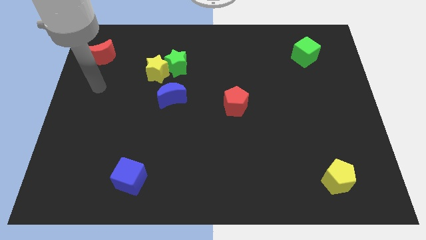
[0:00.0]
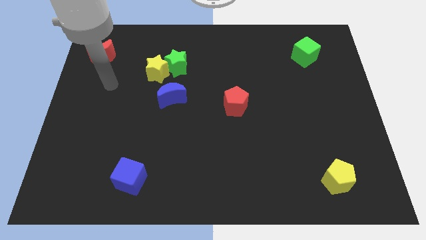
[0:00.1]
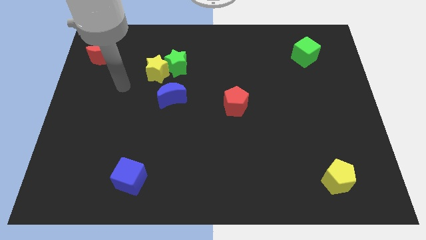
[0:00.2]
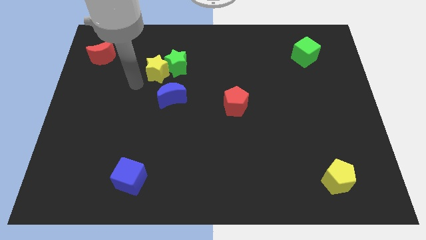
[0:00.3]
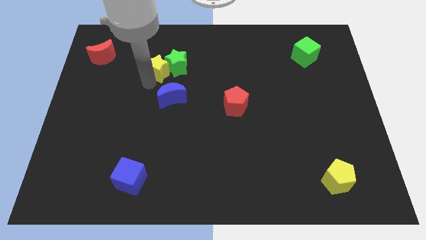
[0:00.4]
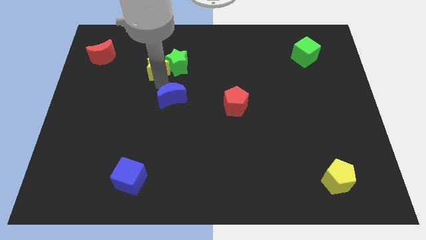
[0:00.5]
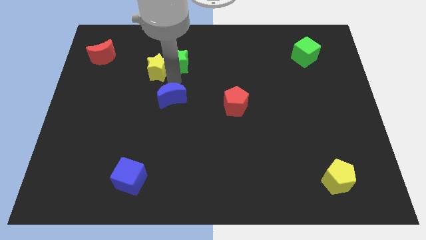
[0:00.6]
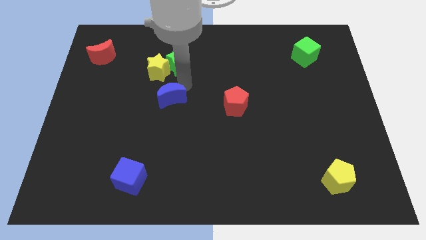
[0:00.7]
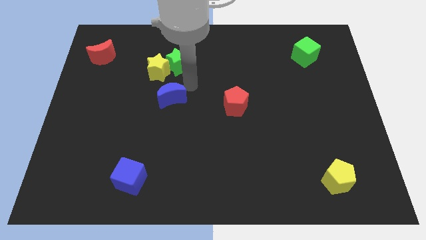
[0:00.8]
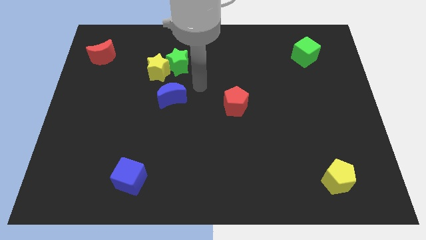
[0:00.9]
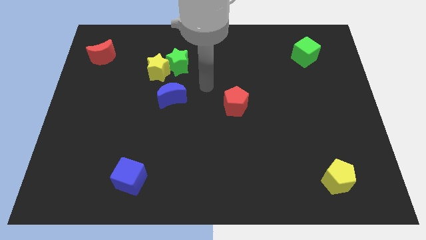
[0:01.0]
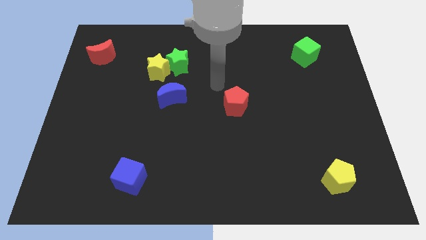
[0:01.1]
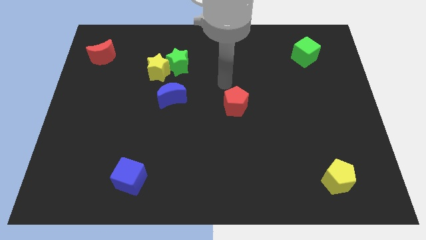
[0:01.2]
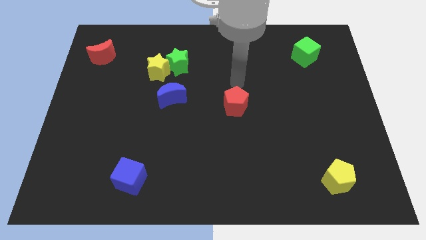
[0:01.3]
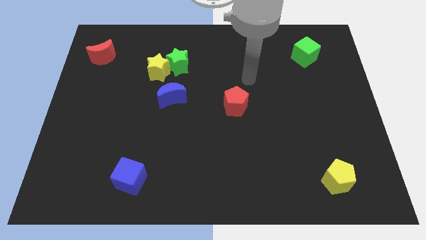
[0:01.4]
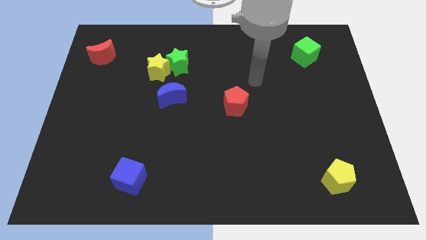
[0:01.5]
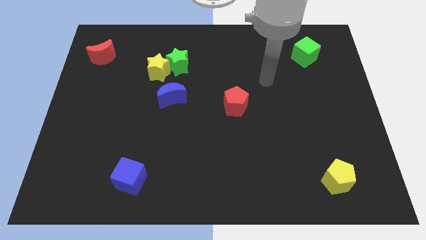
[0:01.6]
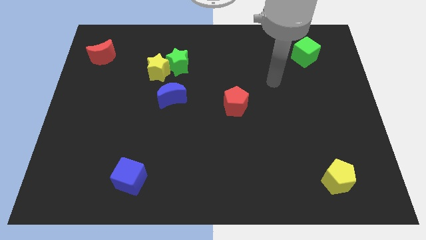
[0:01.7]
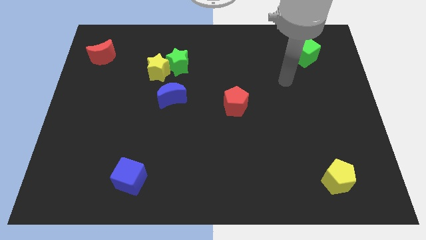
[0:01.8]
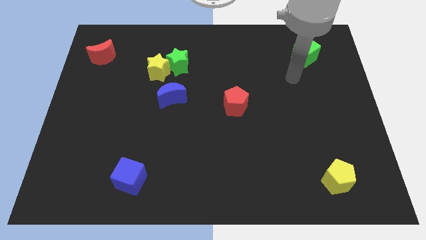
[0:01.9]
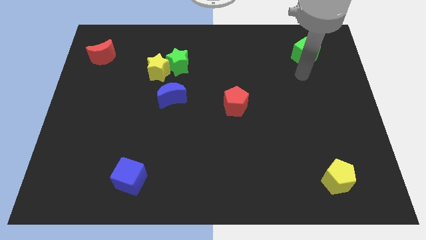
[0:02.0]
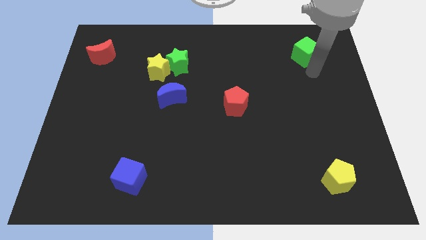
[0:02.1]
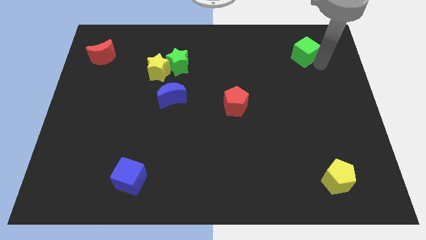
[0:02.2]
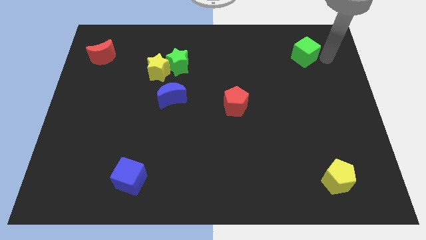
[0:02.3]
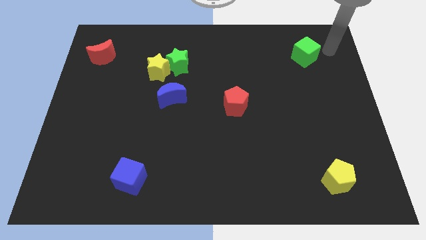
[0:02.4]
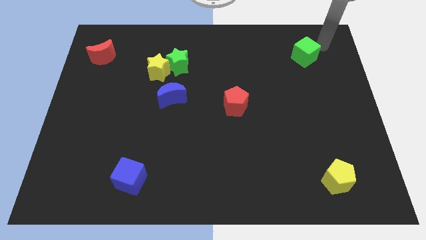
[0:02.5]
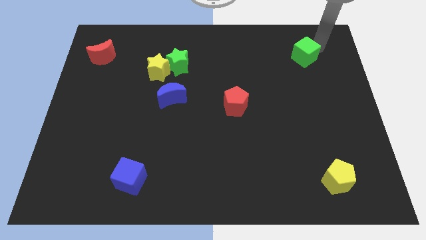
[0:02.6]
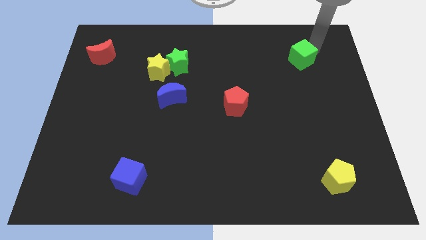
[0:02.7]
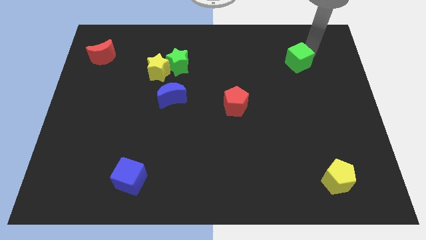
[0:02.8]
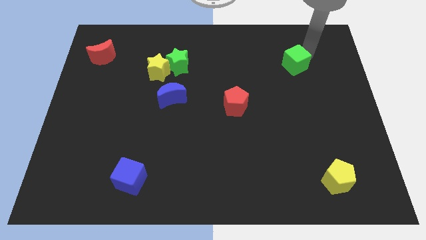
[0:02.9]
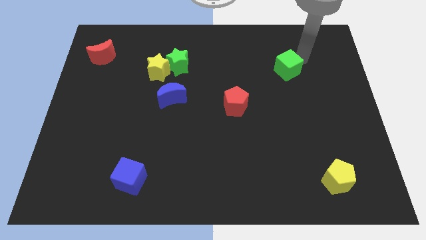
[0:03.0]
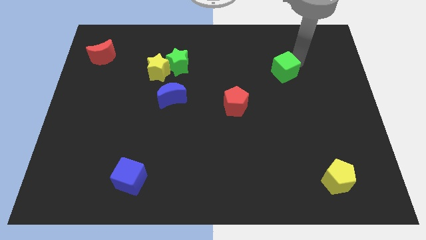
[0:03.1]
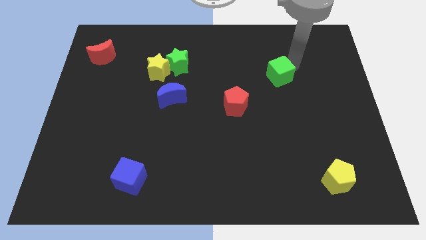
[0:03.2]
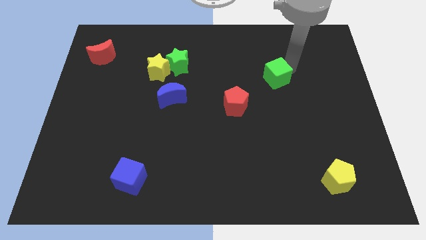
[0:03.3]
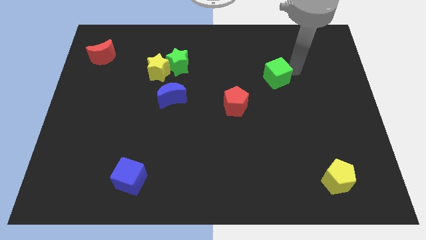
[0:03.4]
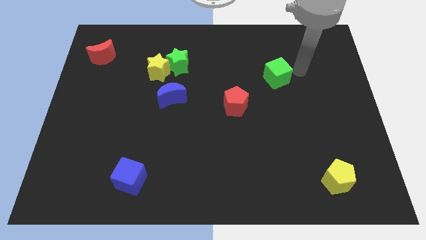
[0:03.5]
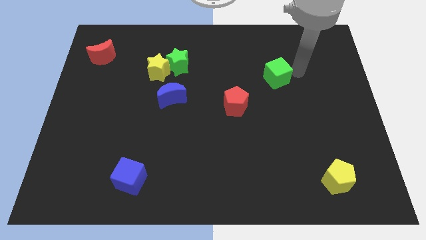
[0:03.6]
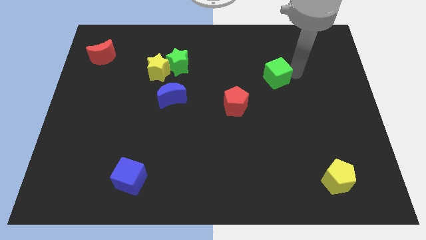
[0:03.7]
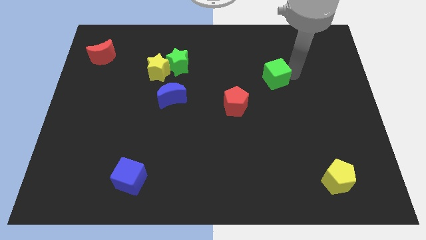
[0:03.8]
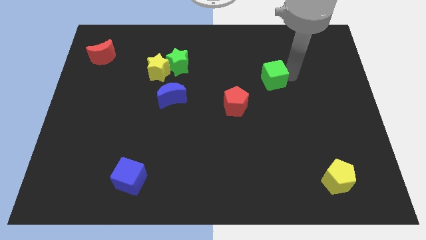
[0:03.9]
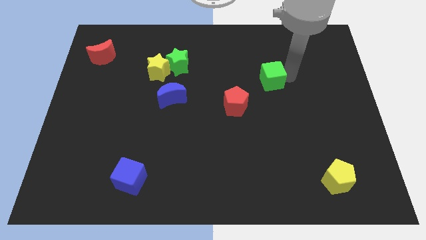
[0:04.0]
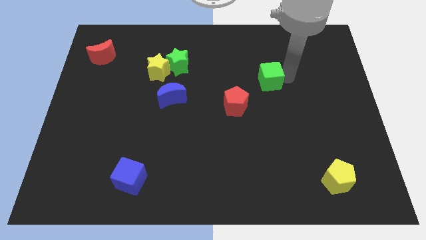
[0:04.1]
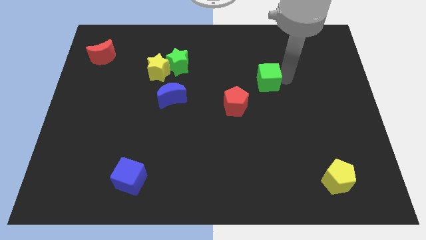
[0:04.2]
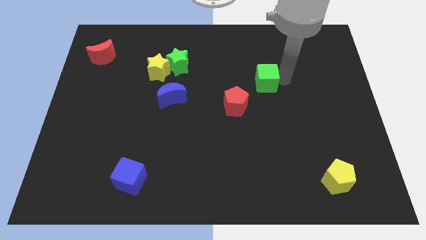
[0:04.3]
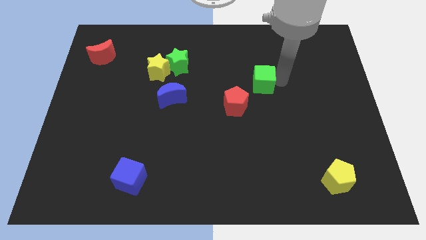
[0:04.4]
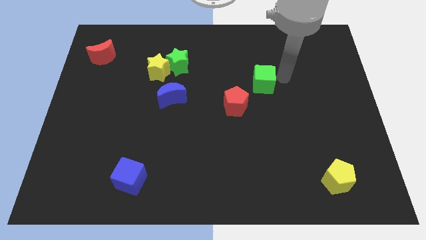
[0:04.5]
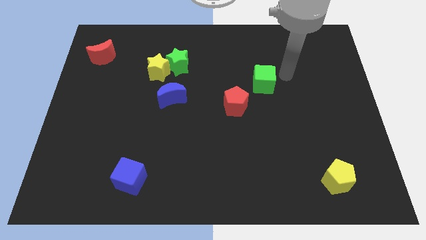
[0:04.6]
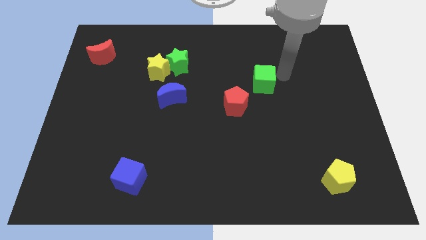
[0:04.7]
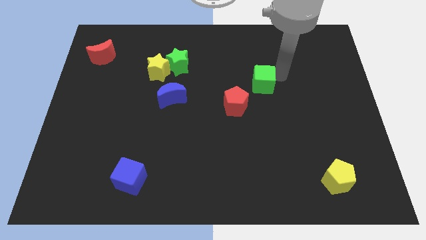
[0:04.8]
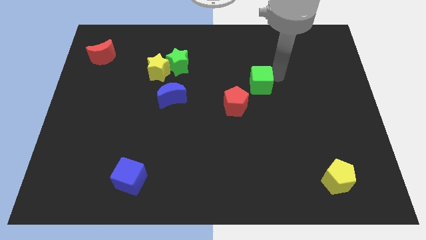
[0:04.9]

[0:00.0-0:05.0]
put the green cube to the center of the board

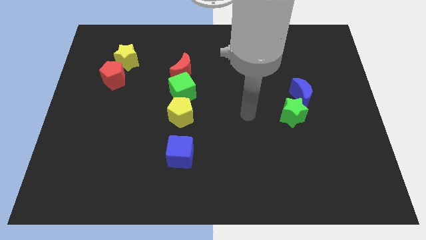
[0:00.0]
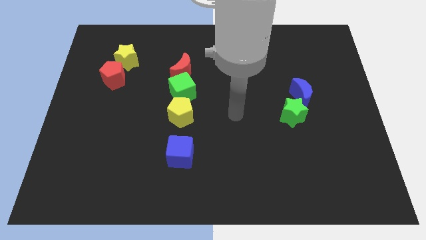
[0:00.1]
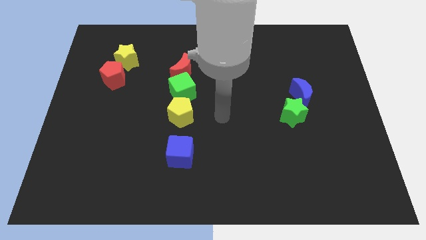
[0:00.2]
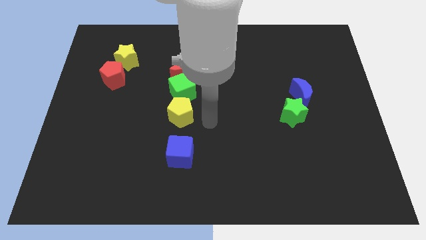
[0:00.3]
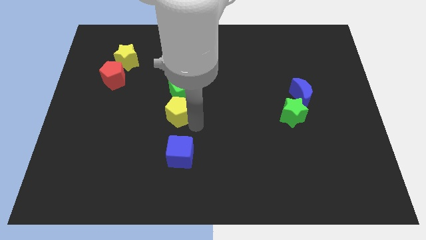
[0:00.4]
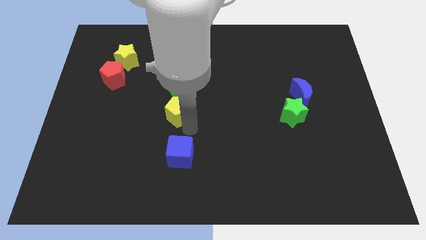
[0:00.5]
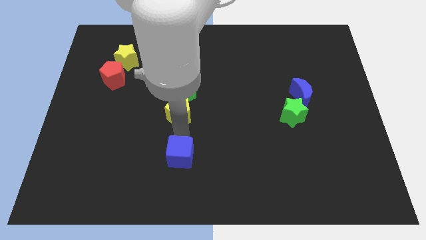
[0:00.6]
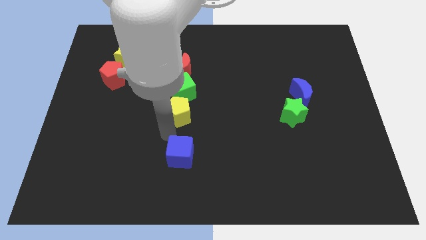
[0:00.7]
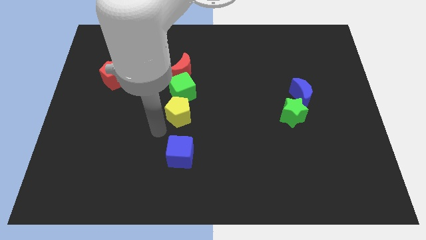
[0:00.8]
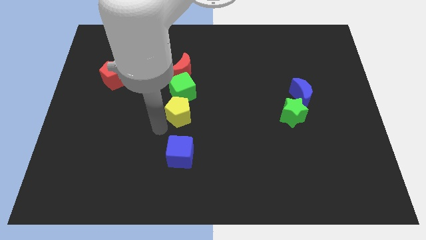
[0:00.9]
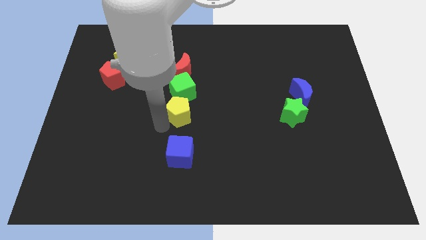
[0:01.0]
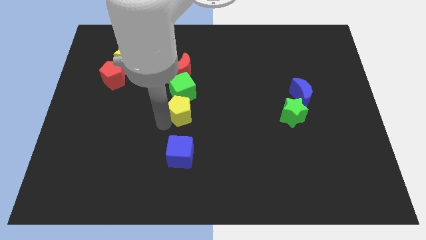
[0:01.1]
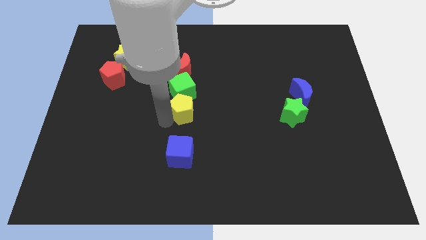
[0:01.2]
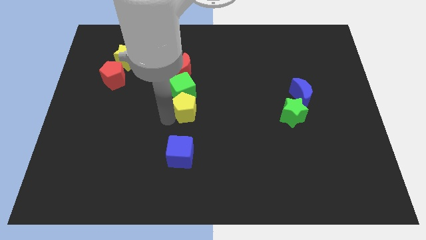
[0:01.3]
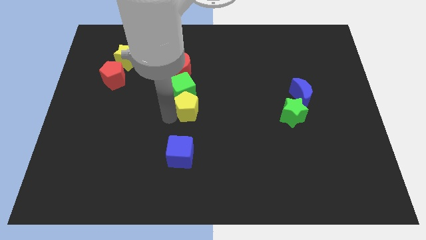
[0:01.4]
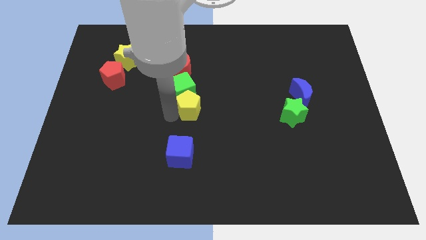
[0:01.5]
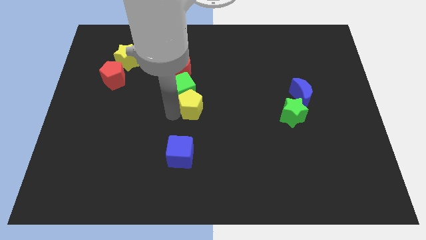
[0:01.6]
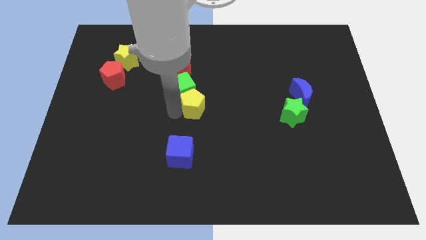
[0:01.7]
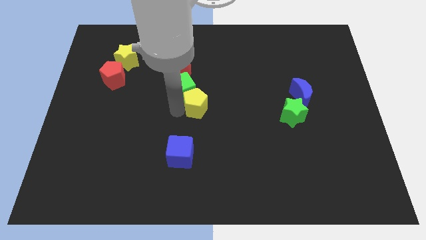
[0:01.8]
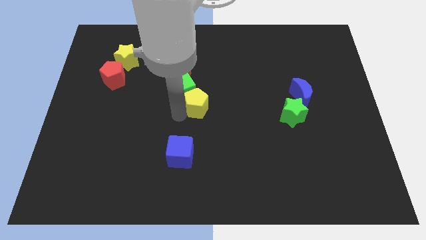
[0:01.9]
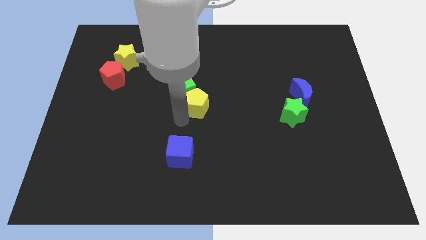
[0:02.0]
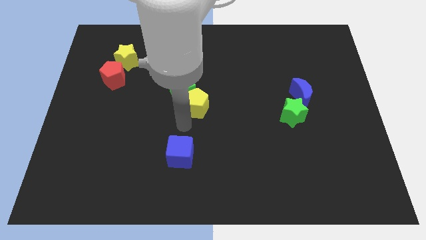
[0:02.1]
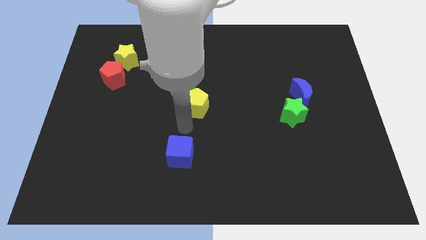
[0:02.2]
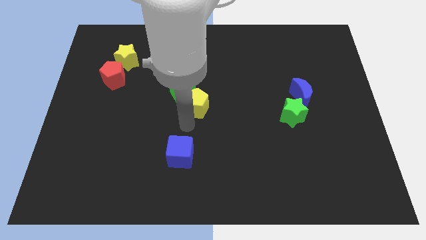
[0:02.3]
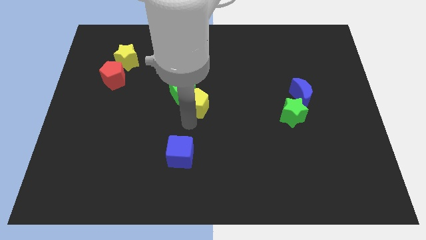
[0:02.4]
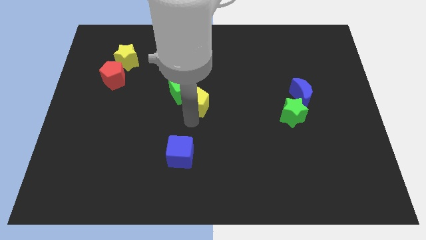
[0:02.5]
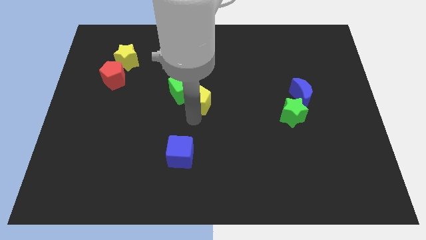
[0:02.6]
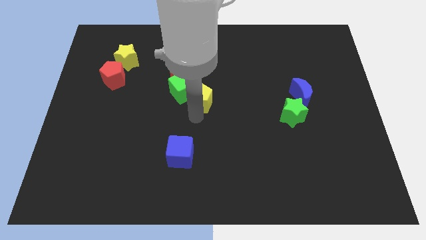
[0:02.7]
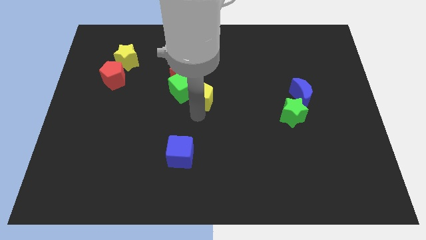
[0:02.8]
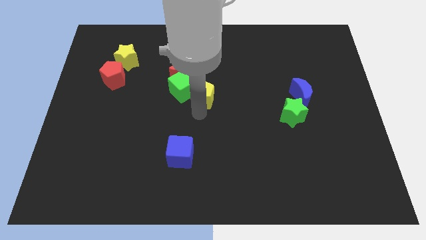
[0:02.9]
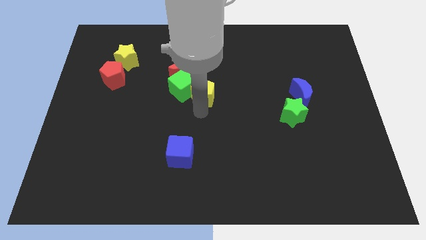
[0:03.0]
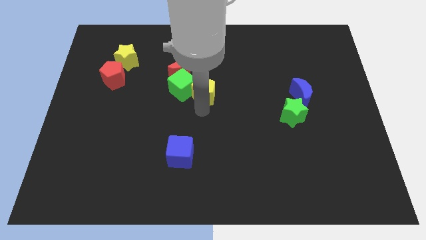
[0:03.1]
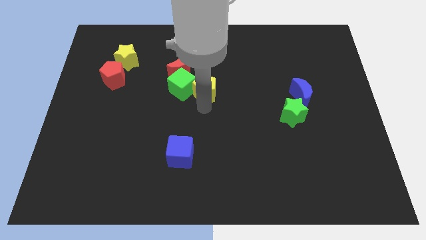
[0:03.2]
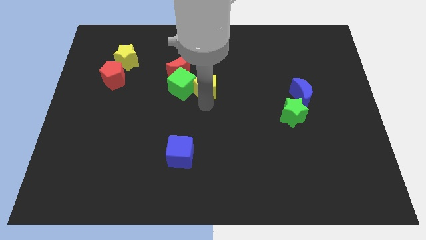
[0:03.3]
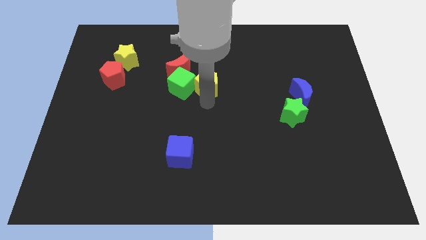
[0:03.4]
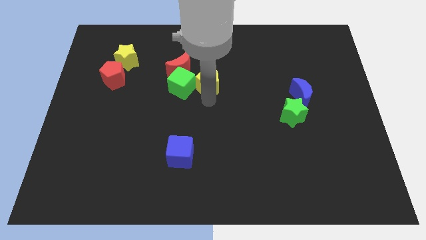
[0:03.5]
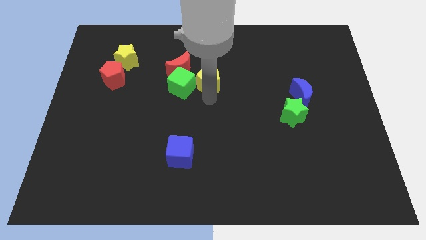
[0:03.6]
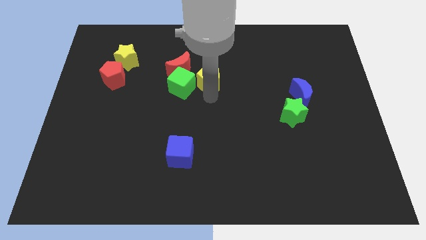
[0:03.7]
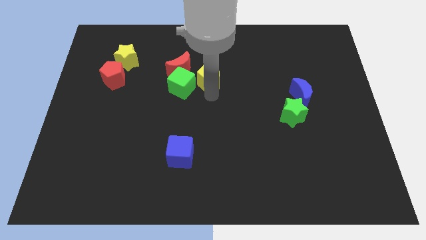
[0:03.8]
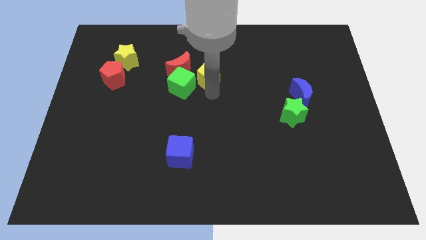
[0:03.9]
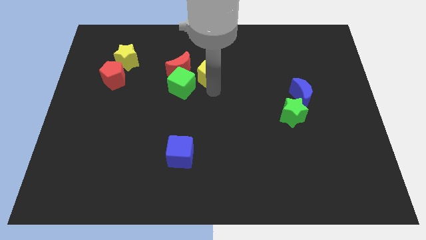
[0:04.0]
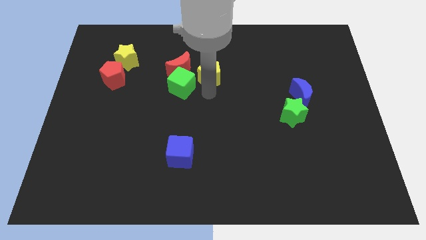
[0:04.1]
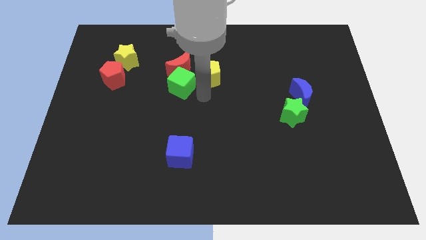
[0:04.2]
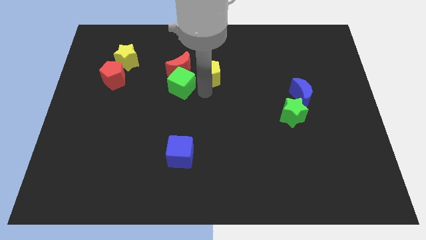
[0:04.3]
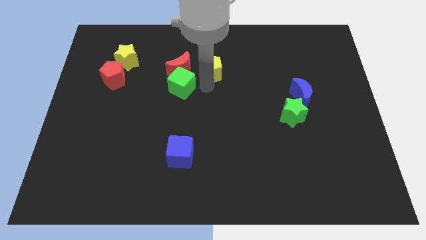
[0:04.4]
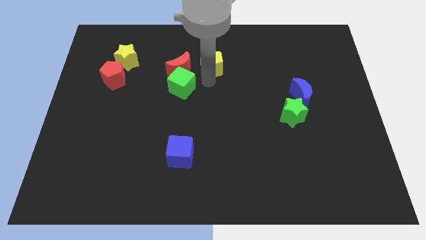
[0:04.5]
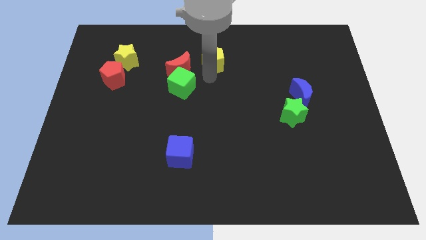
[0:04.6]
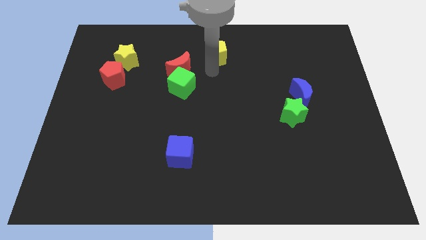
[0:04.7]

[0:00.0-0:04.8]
move the yellow pentagon to the top side
